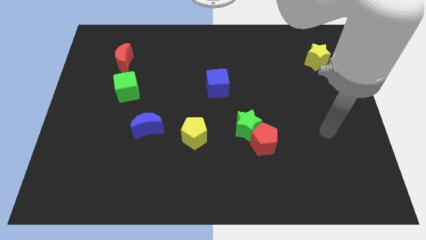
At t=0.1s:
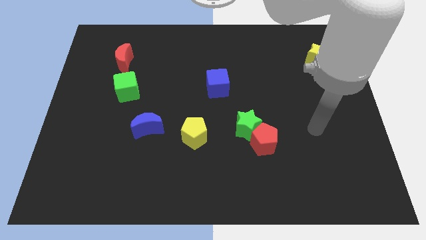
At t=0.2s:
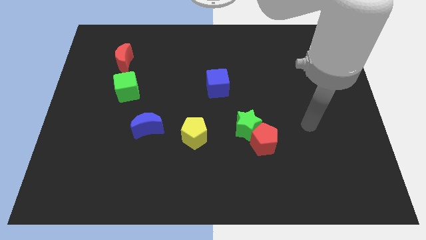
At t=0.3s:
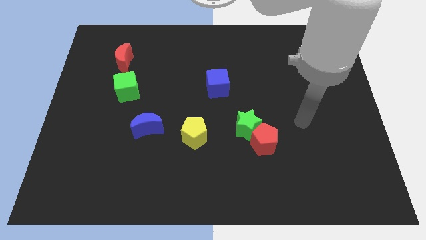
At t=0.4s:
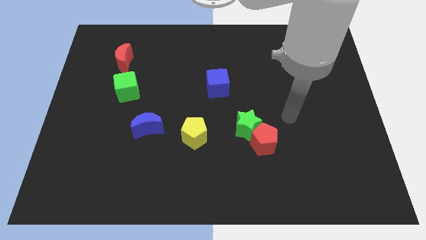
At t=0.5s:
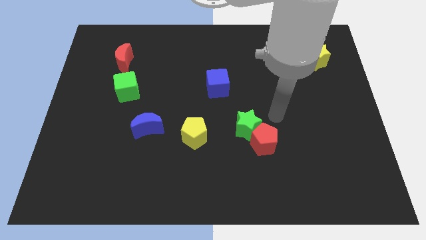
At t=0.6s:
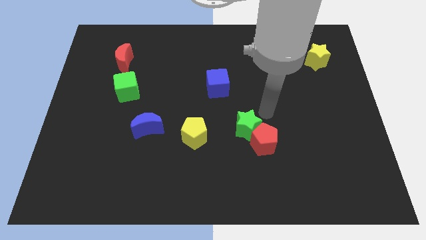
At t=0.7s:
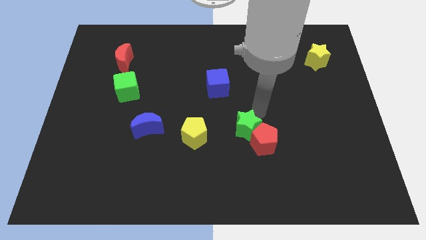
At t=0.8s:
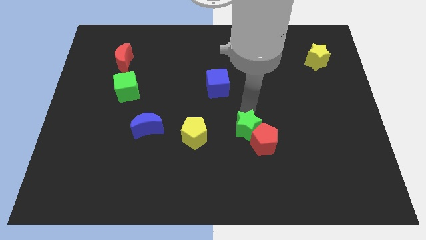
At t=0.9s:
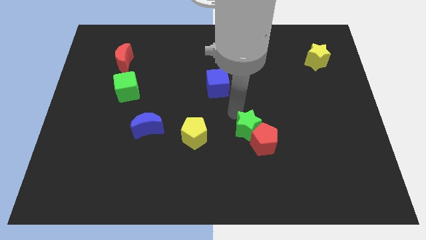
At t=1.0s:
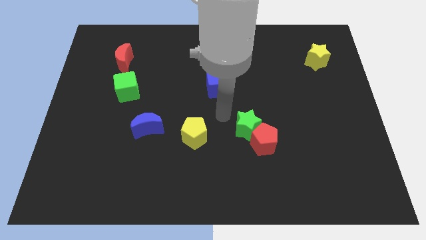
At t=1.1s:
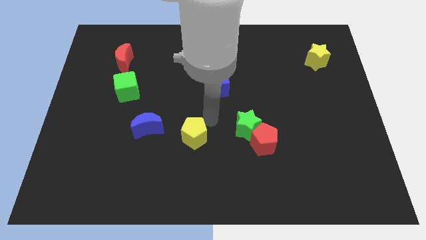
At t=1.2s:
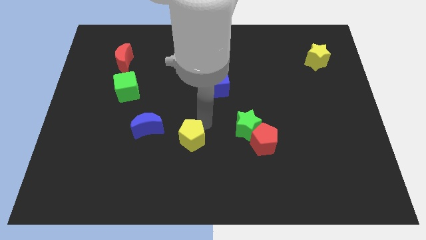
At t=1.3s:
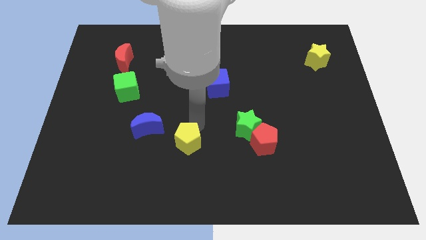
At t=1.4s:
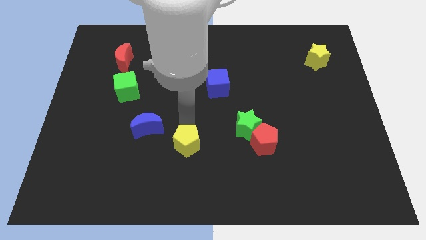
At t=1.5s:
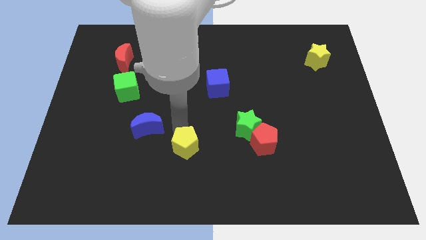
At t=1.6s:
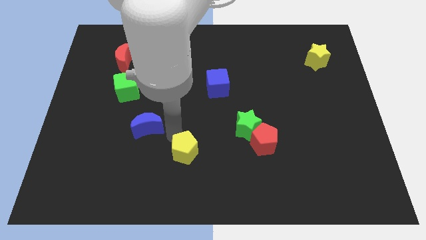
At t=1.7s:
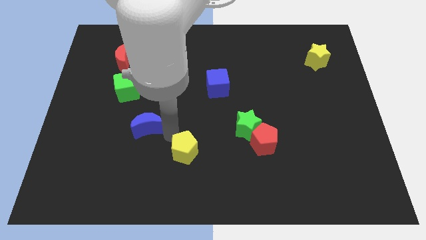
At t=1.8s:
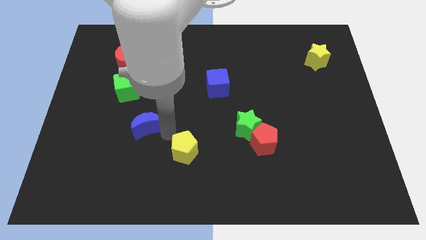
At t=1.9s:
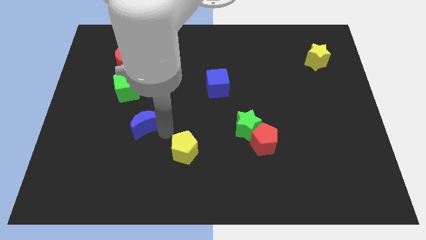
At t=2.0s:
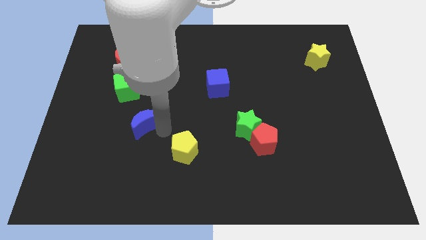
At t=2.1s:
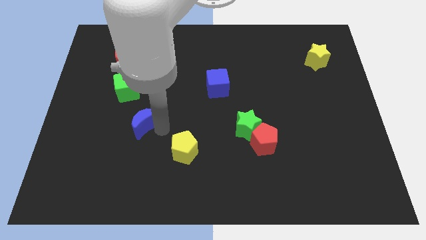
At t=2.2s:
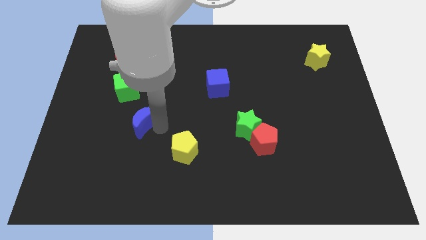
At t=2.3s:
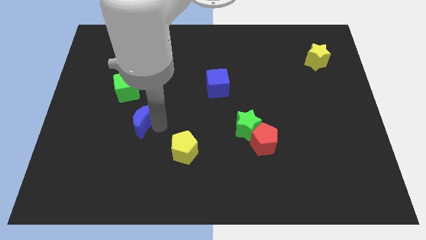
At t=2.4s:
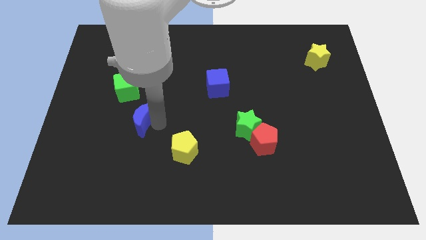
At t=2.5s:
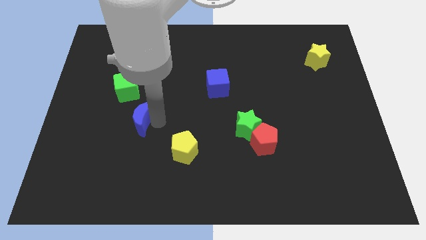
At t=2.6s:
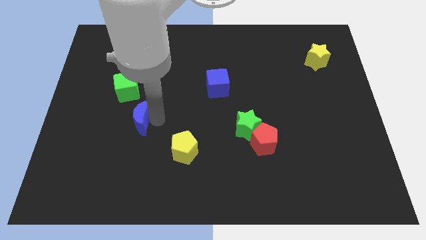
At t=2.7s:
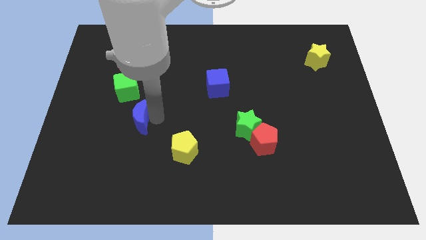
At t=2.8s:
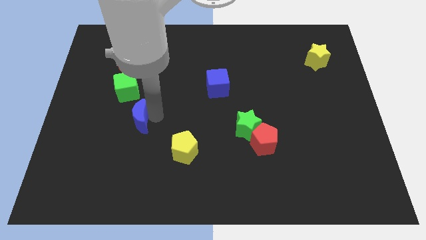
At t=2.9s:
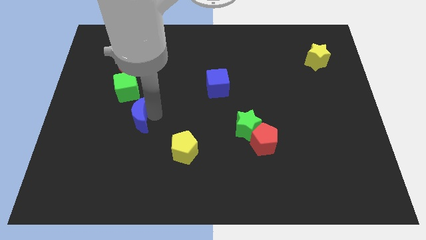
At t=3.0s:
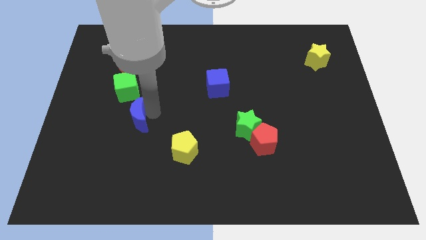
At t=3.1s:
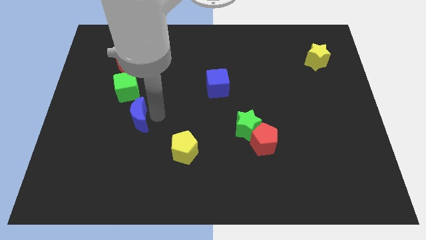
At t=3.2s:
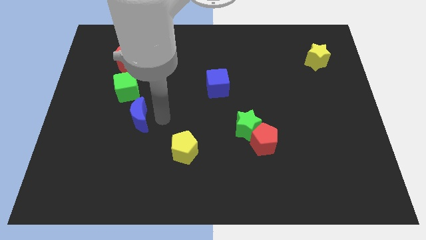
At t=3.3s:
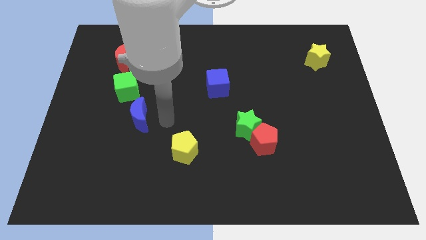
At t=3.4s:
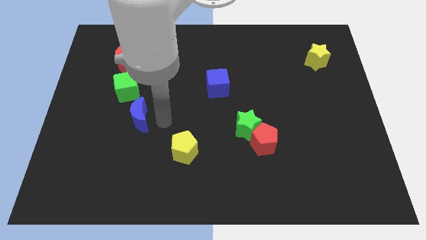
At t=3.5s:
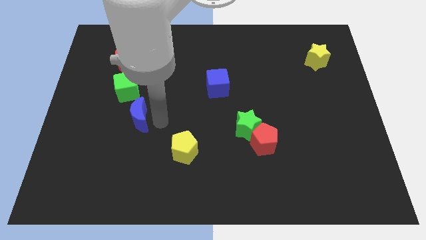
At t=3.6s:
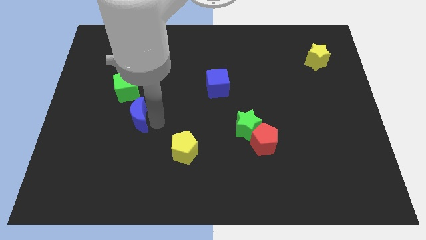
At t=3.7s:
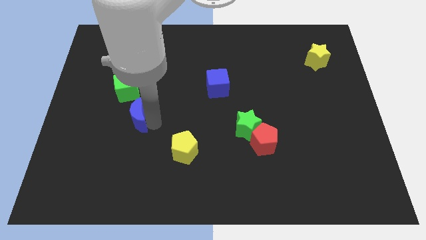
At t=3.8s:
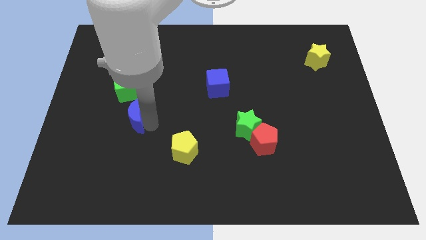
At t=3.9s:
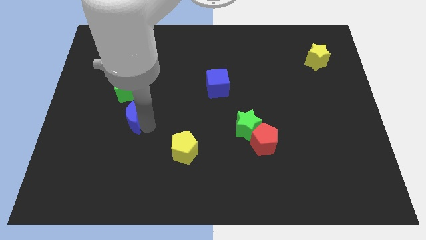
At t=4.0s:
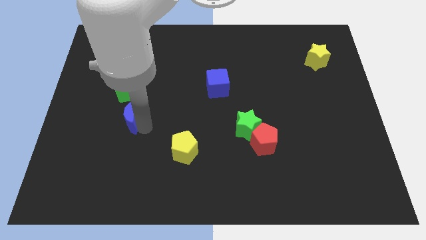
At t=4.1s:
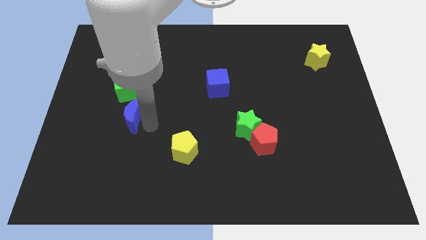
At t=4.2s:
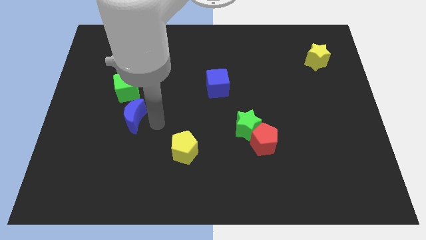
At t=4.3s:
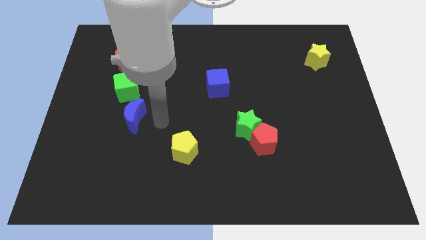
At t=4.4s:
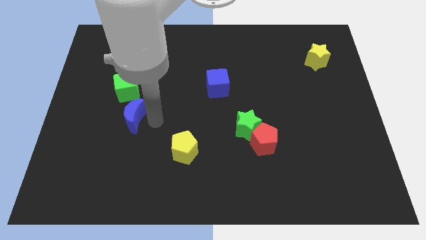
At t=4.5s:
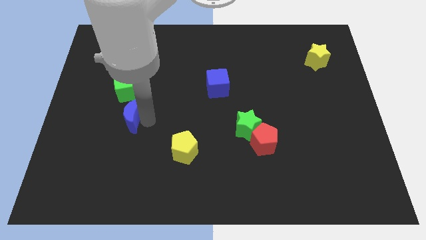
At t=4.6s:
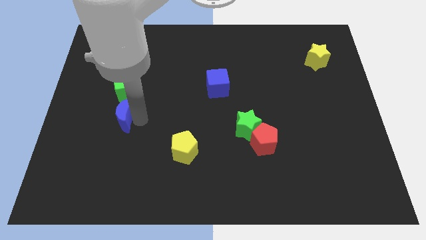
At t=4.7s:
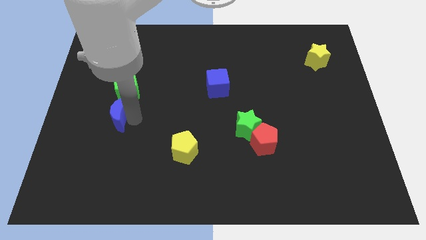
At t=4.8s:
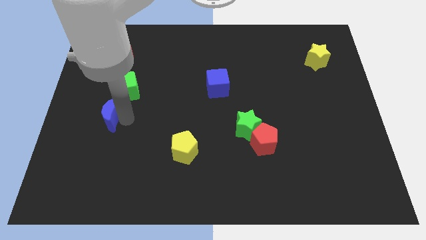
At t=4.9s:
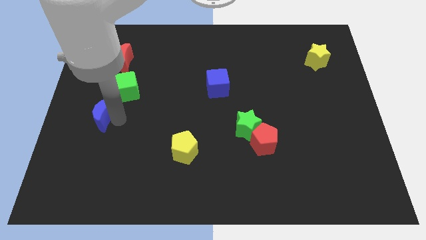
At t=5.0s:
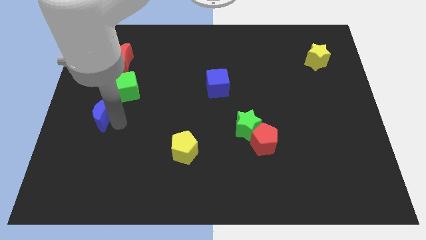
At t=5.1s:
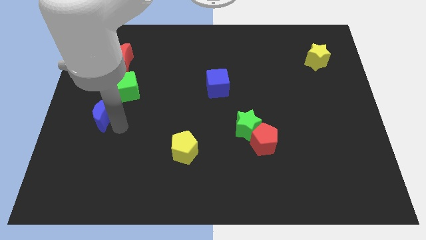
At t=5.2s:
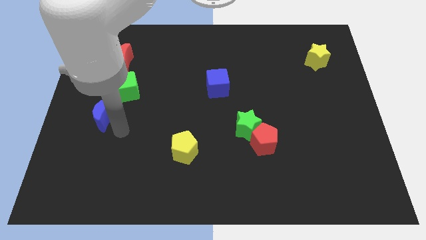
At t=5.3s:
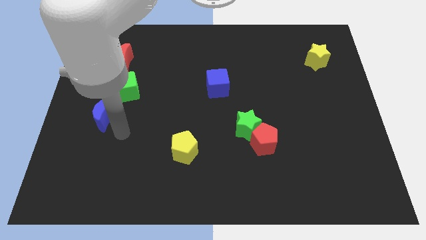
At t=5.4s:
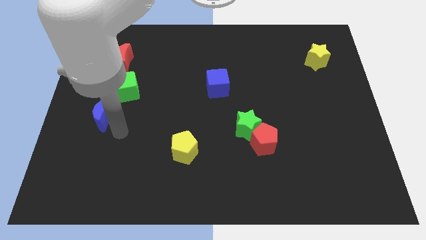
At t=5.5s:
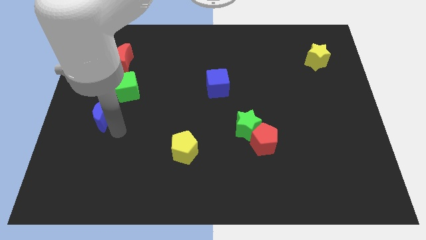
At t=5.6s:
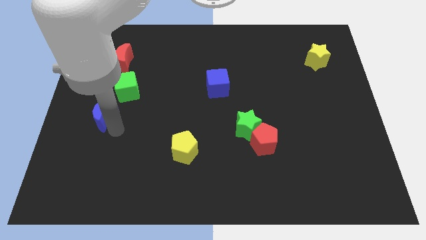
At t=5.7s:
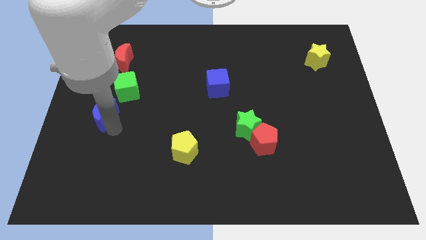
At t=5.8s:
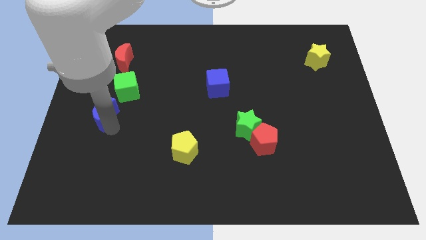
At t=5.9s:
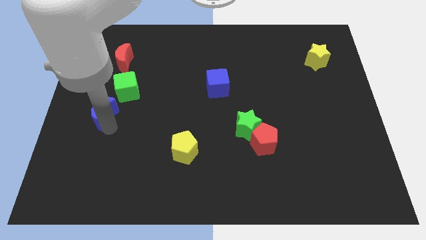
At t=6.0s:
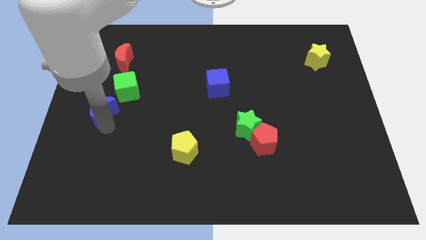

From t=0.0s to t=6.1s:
put the blue moon to the left side

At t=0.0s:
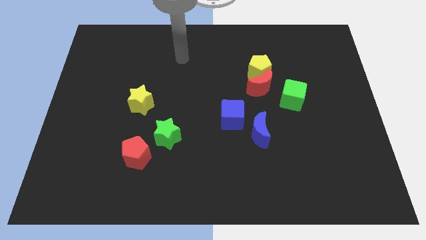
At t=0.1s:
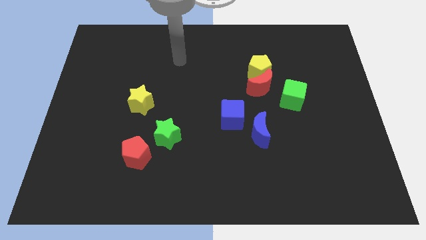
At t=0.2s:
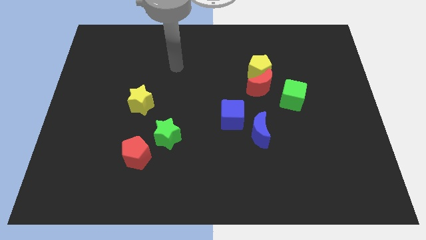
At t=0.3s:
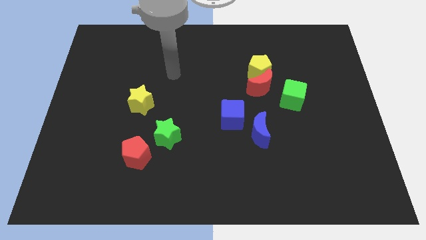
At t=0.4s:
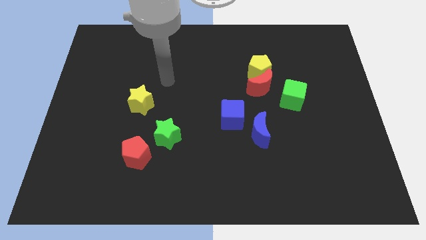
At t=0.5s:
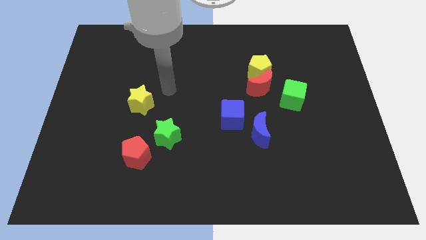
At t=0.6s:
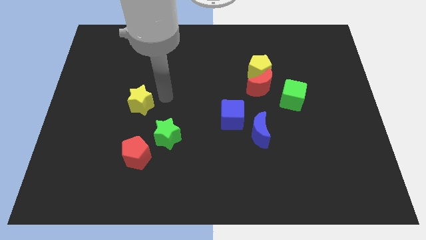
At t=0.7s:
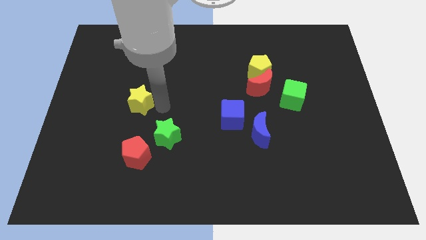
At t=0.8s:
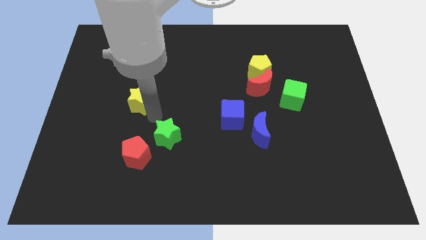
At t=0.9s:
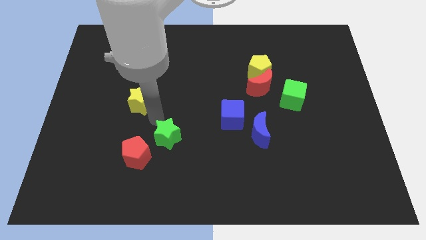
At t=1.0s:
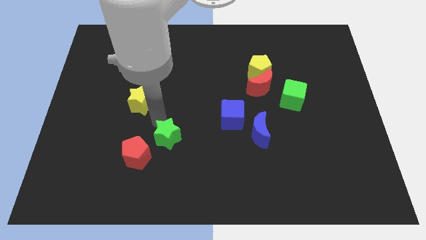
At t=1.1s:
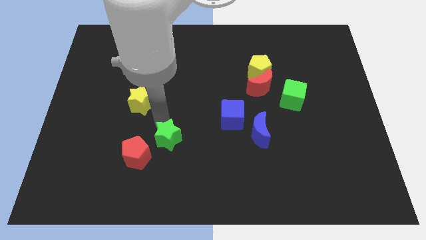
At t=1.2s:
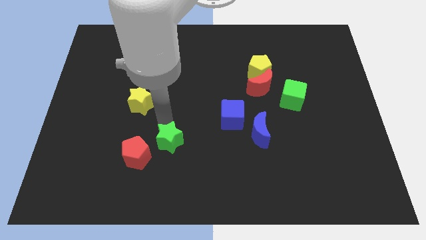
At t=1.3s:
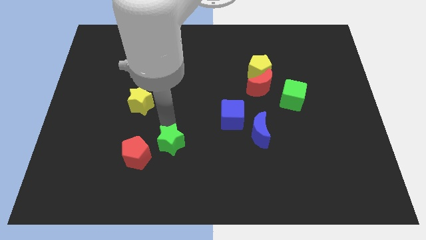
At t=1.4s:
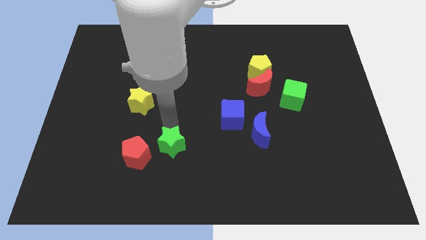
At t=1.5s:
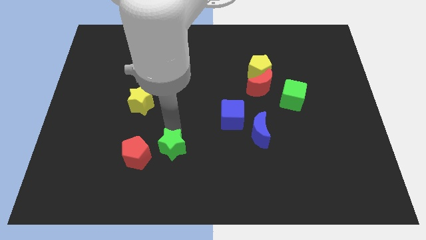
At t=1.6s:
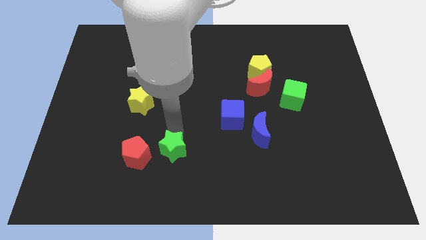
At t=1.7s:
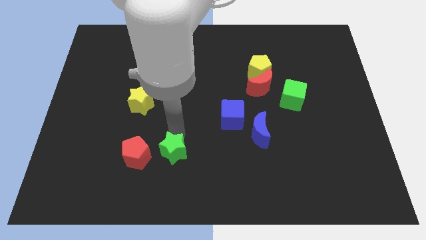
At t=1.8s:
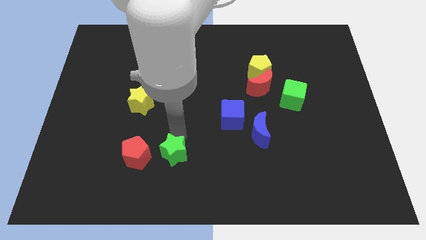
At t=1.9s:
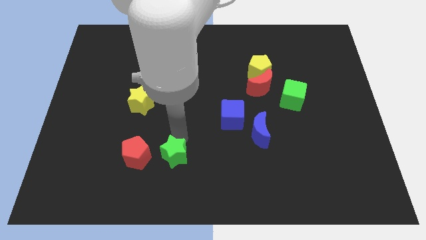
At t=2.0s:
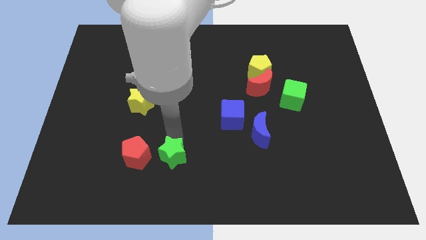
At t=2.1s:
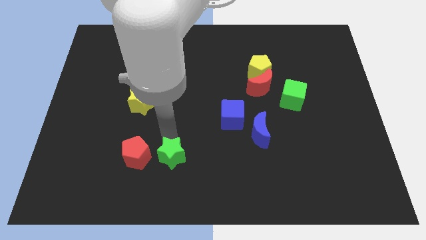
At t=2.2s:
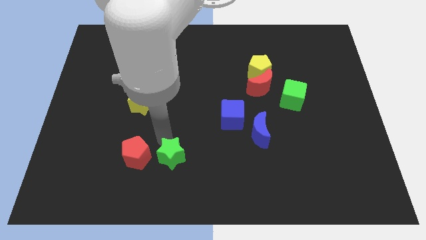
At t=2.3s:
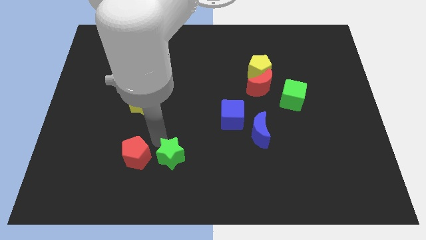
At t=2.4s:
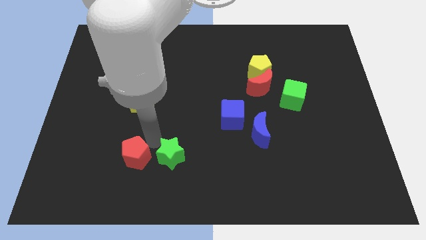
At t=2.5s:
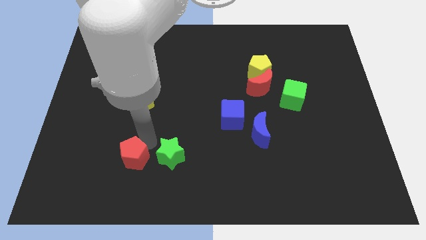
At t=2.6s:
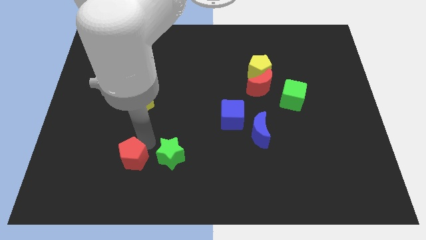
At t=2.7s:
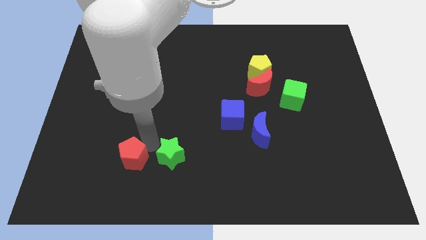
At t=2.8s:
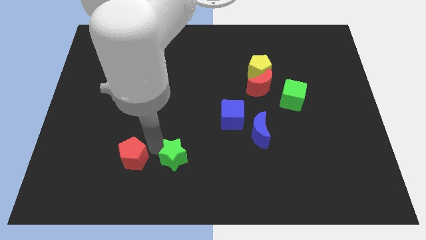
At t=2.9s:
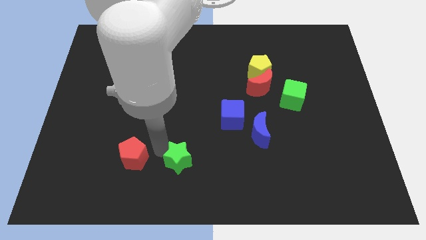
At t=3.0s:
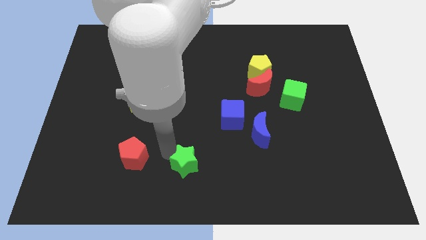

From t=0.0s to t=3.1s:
move the green star to the bottom side
